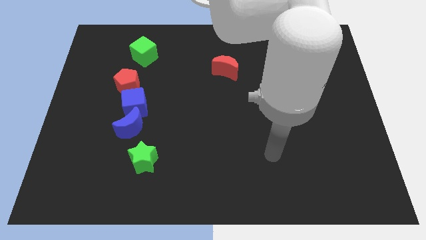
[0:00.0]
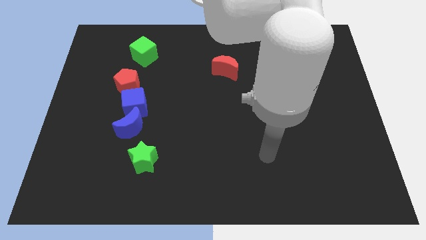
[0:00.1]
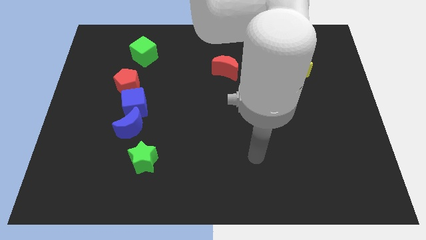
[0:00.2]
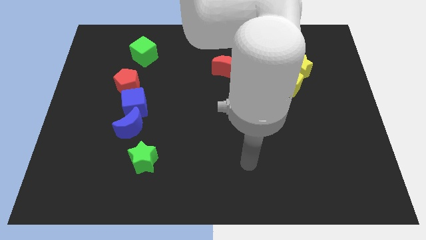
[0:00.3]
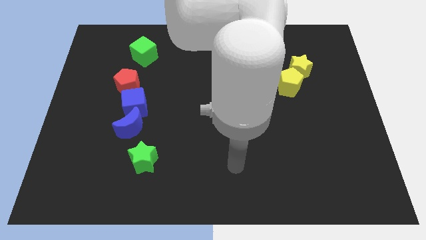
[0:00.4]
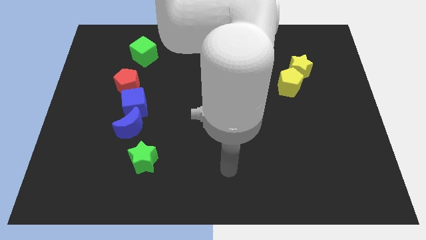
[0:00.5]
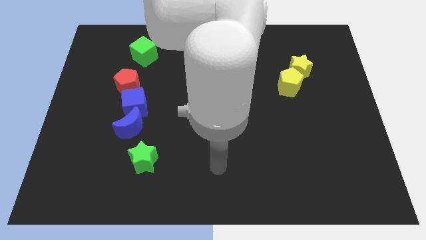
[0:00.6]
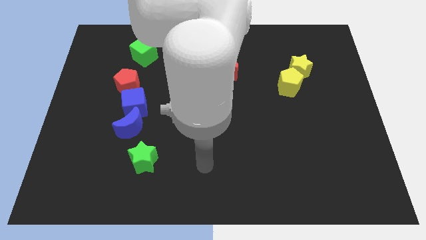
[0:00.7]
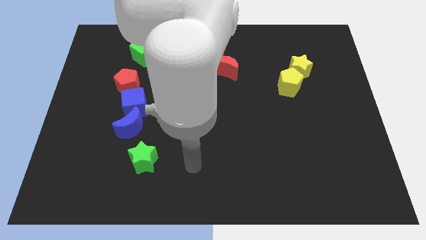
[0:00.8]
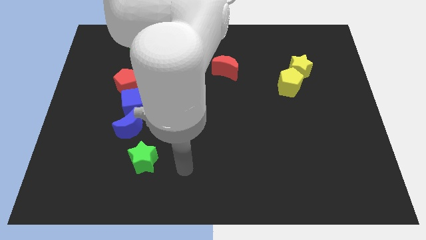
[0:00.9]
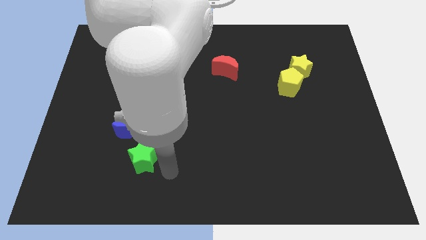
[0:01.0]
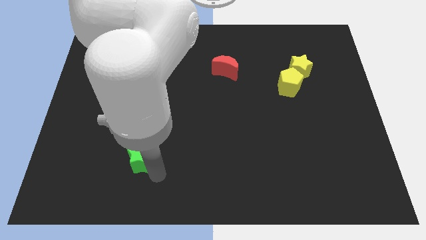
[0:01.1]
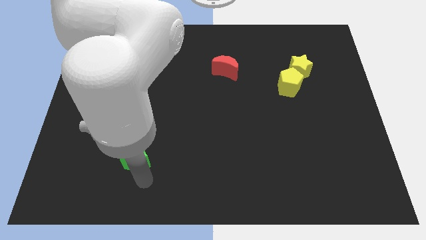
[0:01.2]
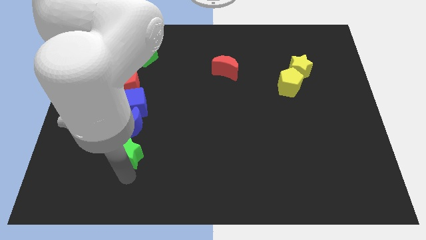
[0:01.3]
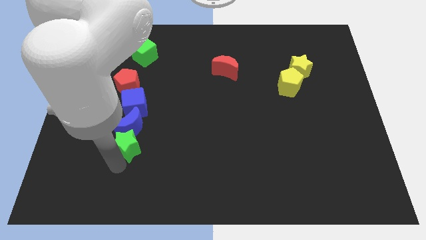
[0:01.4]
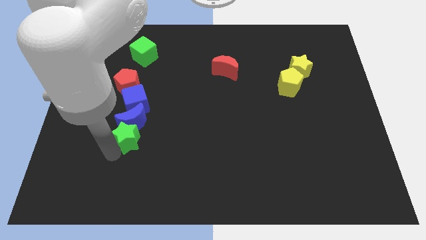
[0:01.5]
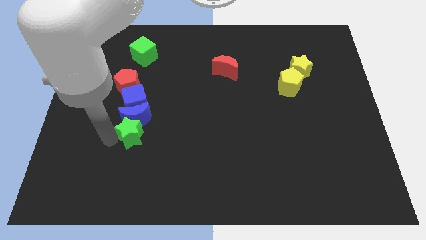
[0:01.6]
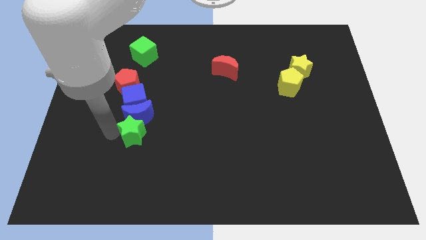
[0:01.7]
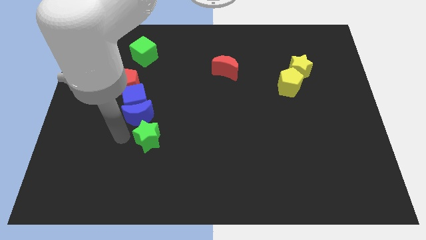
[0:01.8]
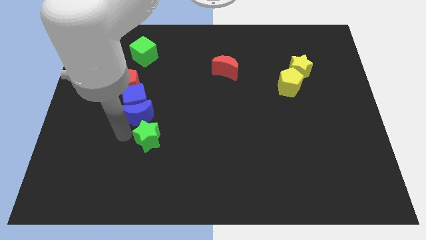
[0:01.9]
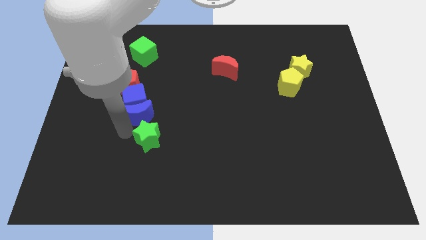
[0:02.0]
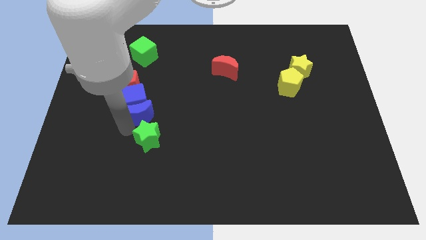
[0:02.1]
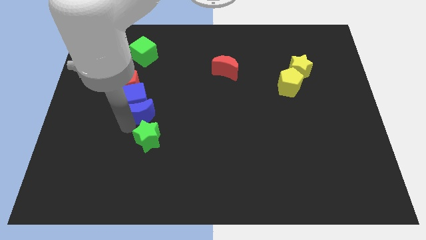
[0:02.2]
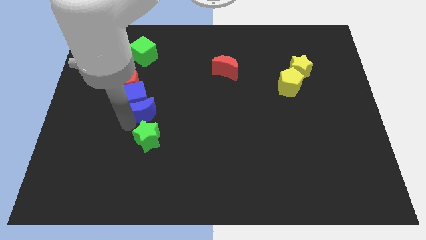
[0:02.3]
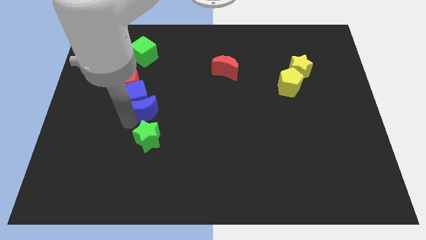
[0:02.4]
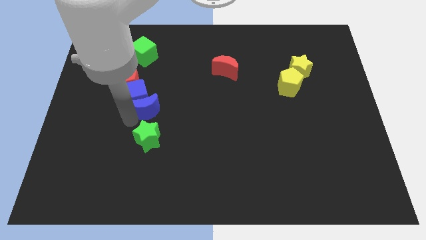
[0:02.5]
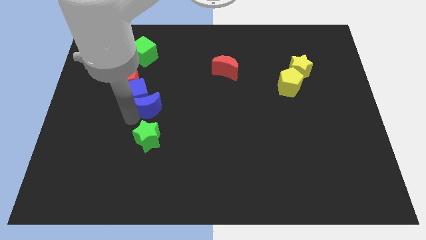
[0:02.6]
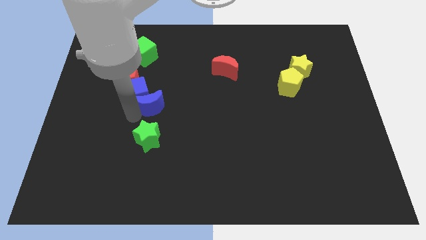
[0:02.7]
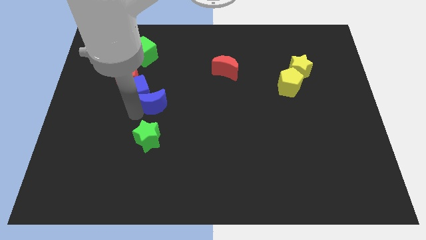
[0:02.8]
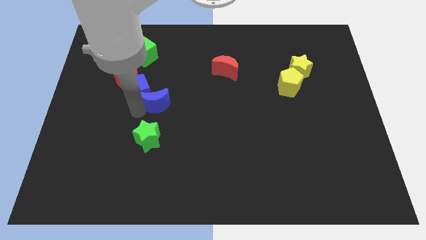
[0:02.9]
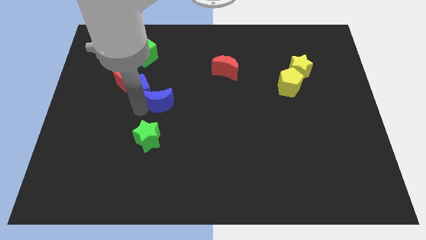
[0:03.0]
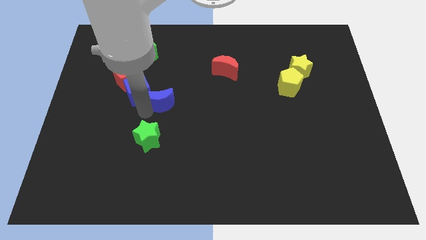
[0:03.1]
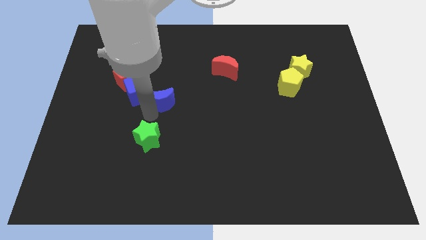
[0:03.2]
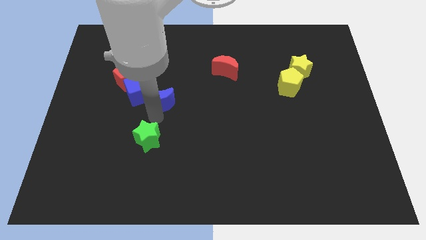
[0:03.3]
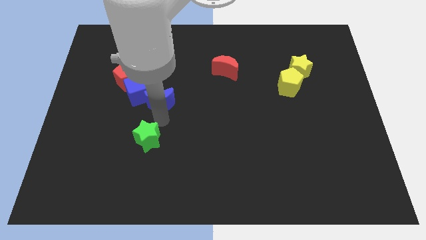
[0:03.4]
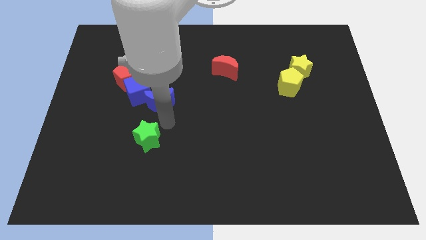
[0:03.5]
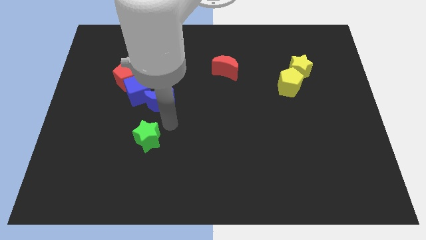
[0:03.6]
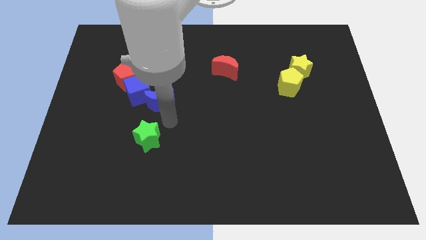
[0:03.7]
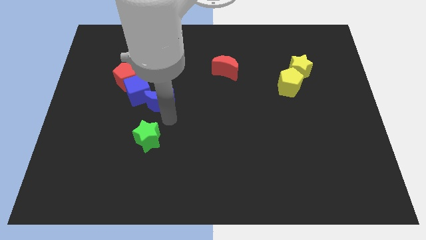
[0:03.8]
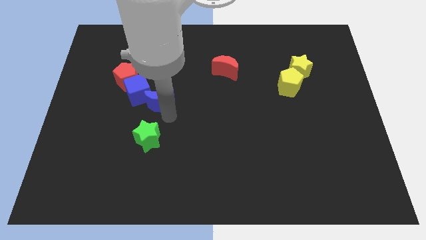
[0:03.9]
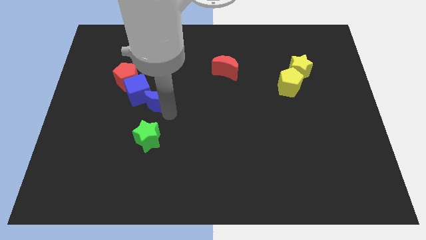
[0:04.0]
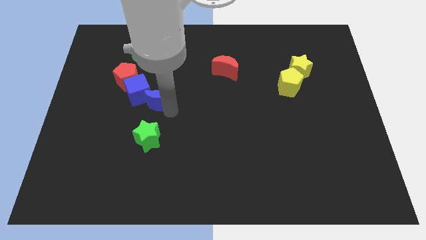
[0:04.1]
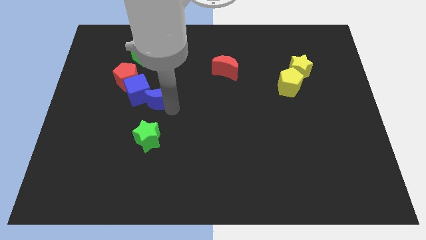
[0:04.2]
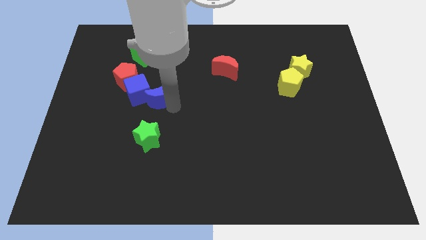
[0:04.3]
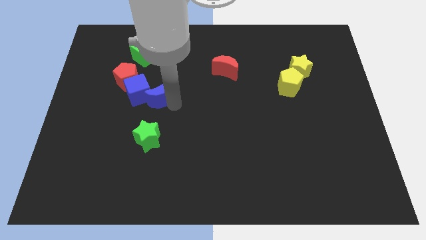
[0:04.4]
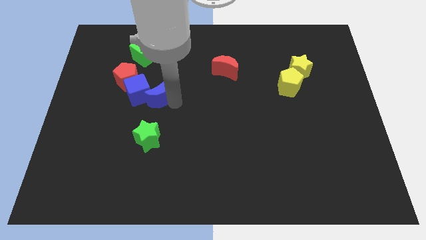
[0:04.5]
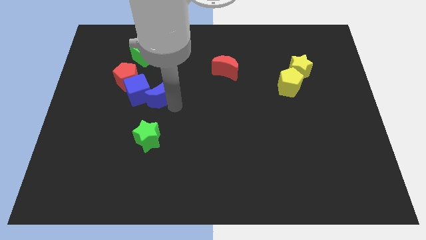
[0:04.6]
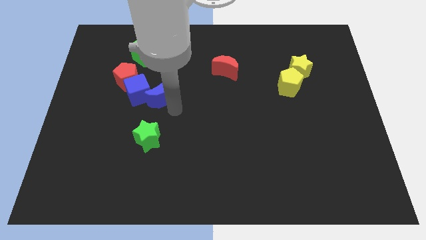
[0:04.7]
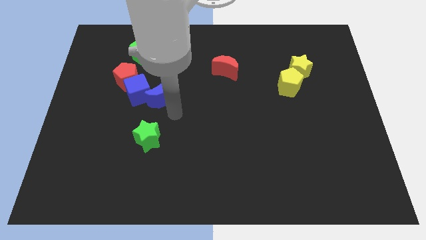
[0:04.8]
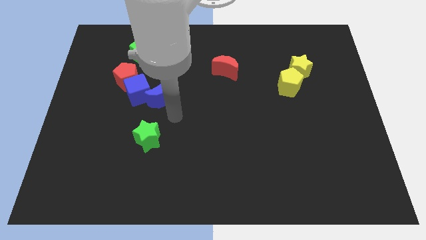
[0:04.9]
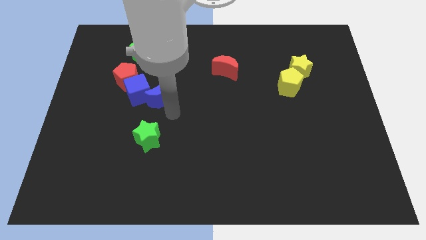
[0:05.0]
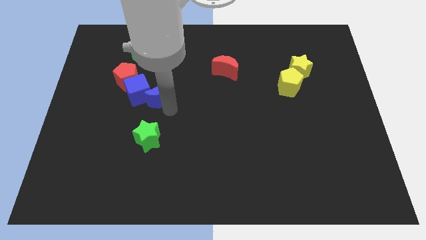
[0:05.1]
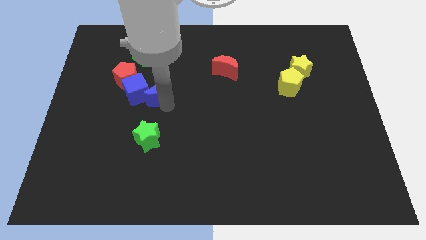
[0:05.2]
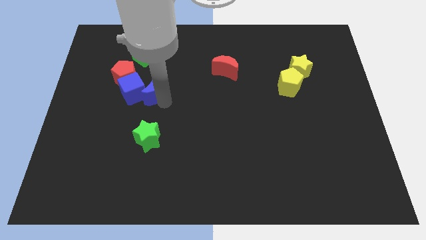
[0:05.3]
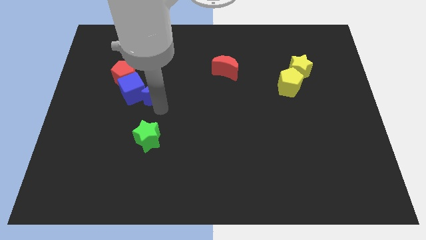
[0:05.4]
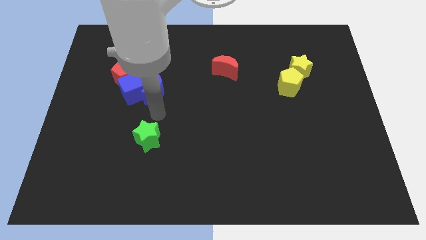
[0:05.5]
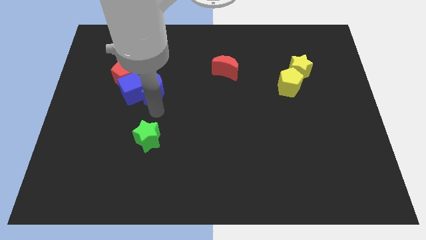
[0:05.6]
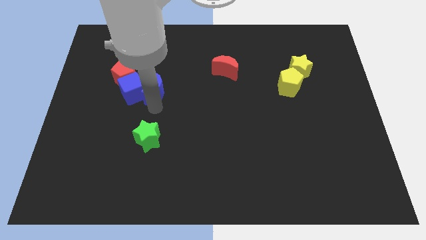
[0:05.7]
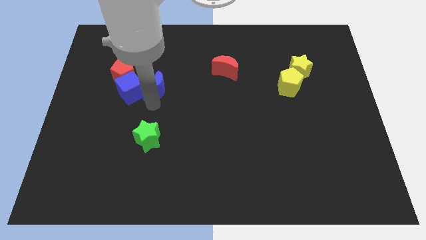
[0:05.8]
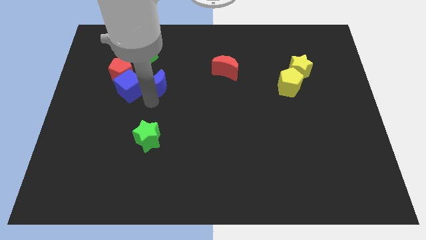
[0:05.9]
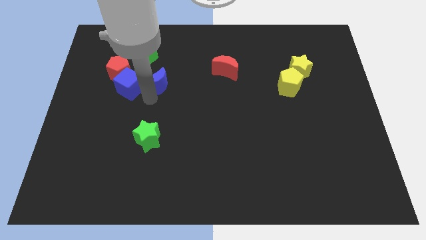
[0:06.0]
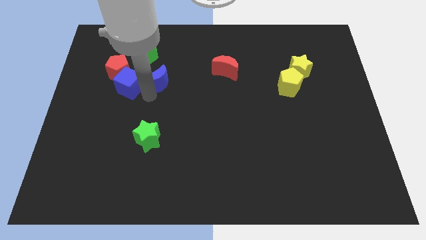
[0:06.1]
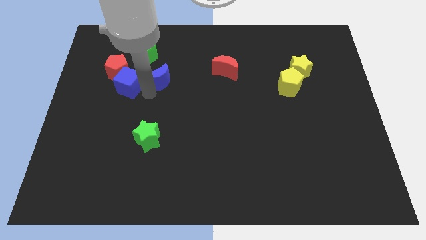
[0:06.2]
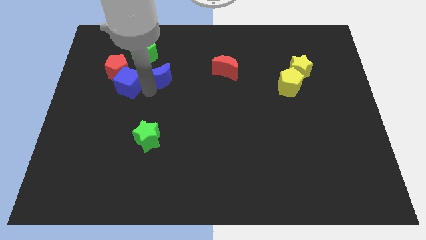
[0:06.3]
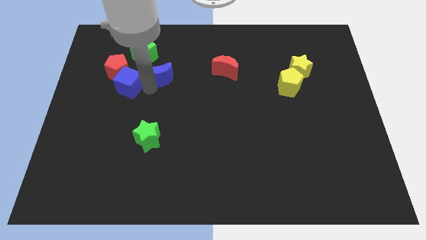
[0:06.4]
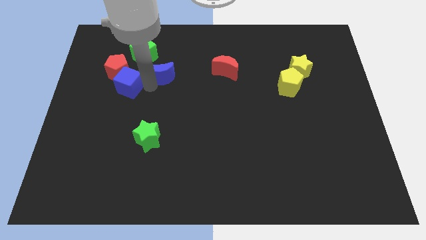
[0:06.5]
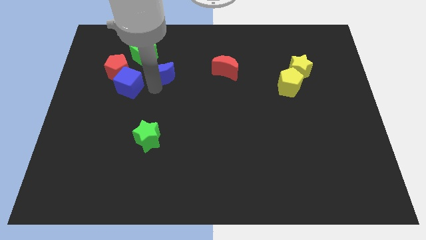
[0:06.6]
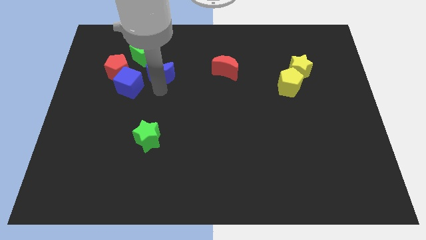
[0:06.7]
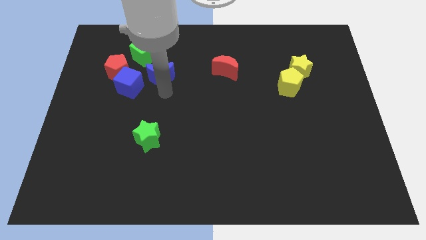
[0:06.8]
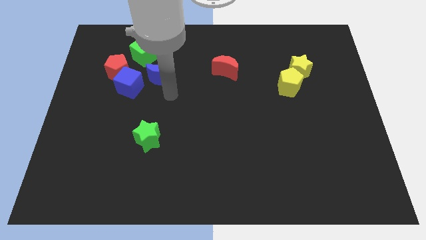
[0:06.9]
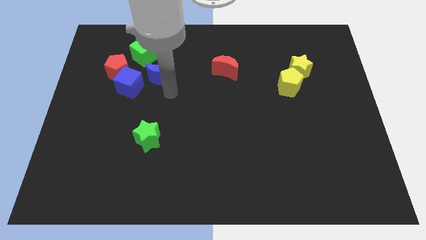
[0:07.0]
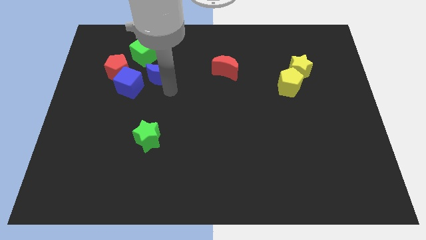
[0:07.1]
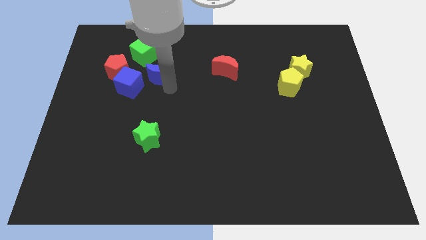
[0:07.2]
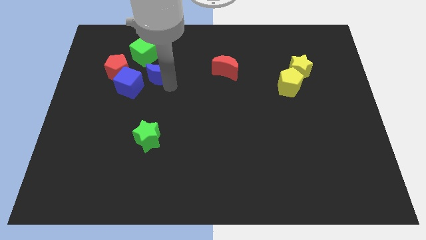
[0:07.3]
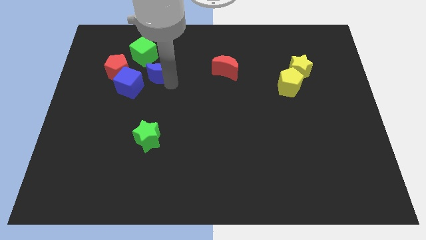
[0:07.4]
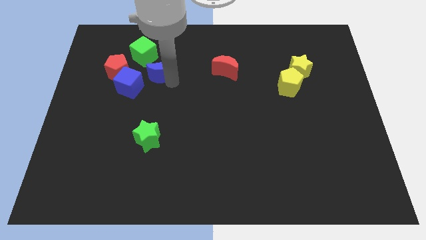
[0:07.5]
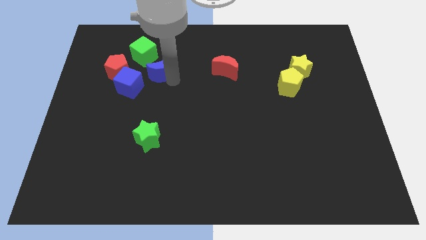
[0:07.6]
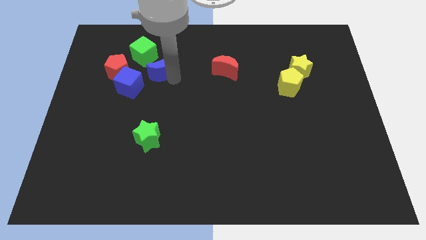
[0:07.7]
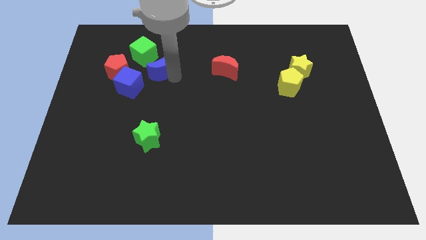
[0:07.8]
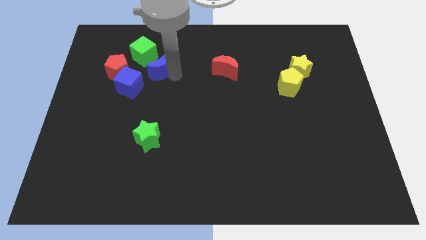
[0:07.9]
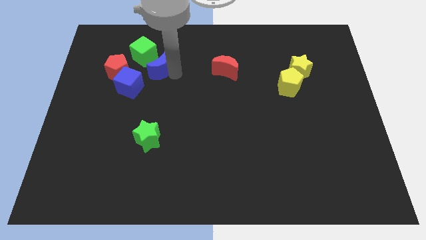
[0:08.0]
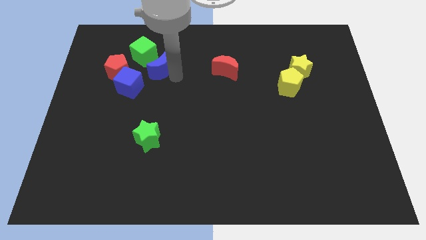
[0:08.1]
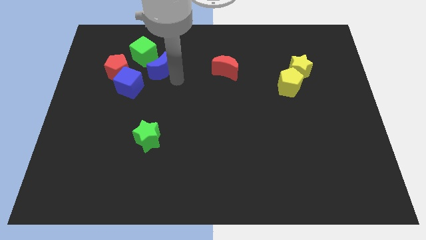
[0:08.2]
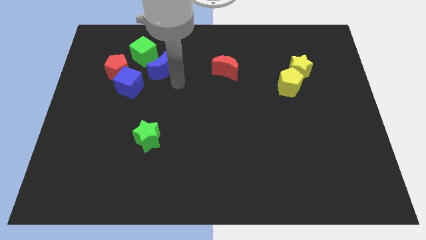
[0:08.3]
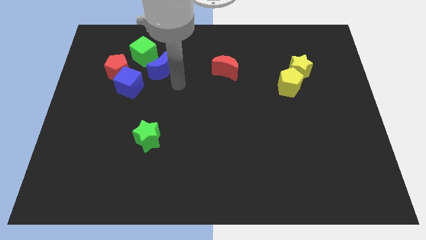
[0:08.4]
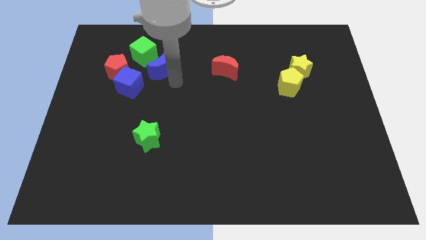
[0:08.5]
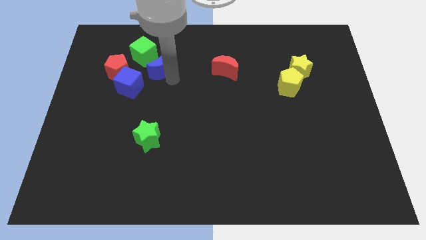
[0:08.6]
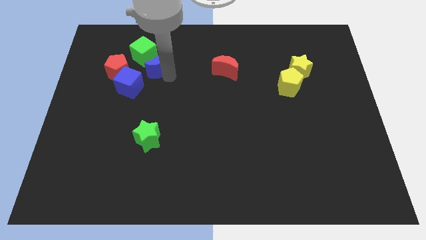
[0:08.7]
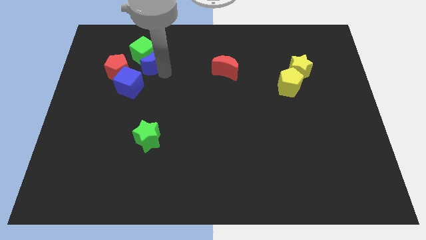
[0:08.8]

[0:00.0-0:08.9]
put the blue moon towards the green cube
